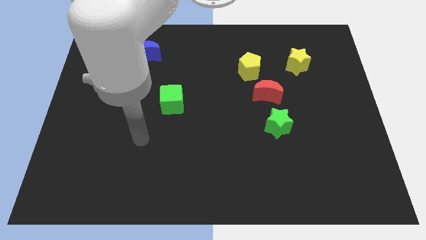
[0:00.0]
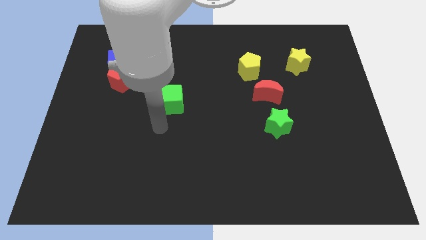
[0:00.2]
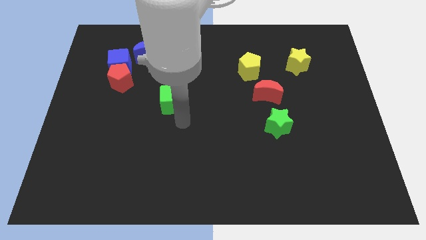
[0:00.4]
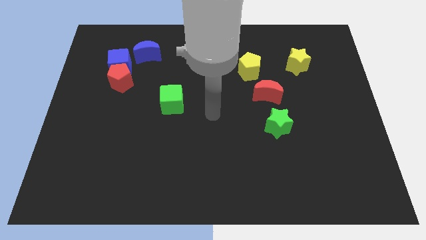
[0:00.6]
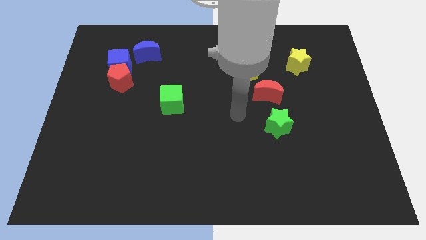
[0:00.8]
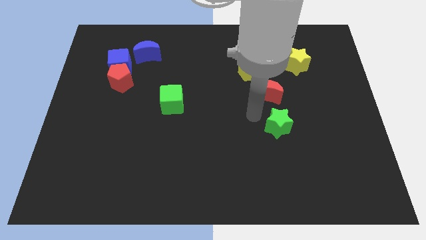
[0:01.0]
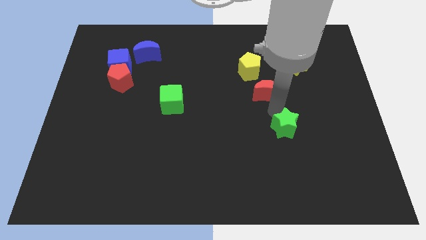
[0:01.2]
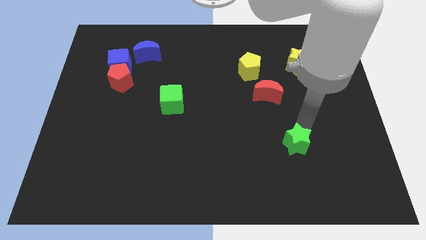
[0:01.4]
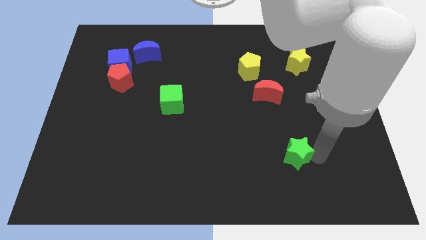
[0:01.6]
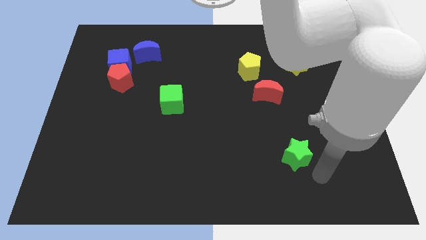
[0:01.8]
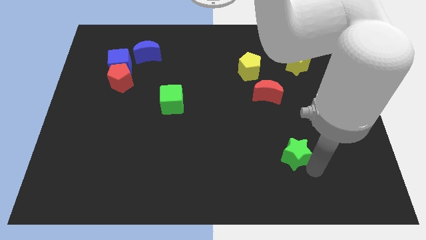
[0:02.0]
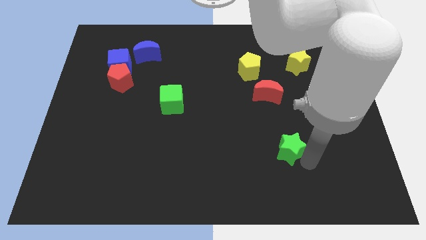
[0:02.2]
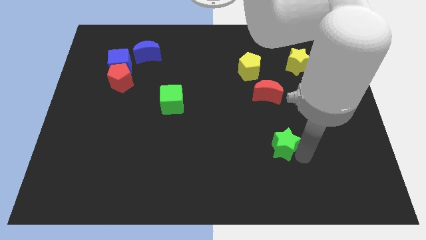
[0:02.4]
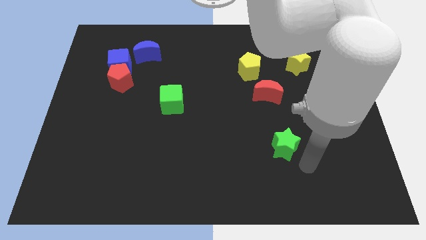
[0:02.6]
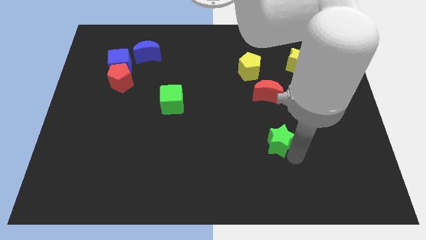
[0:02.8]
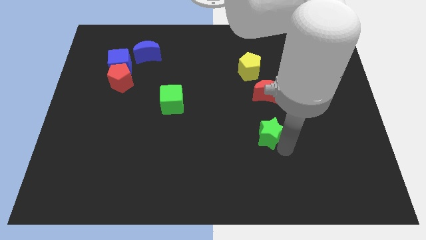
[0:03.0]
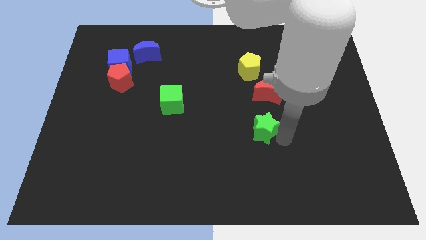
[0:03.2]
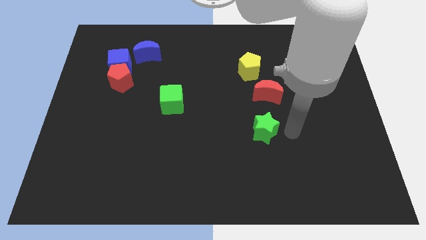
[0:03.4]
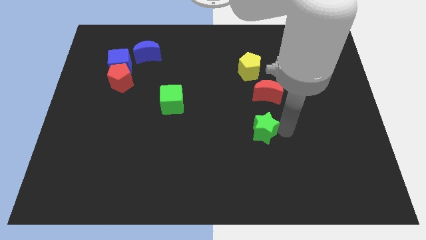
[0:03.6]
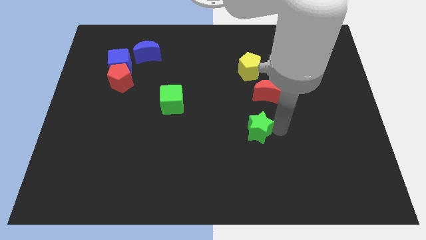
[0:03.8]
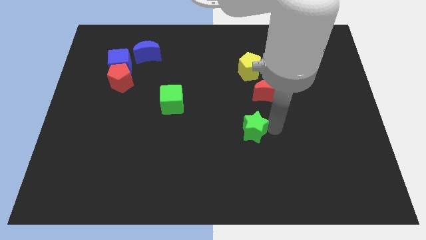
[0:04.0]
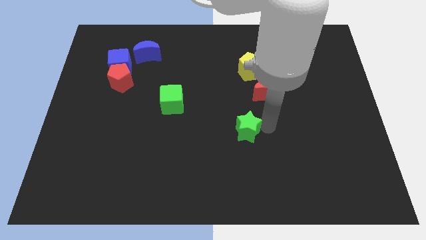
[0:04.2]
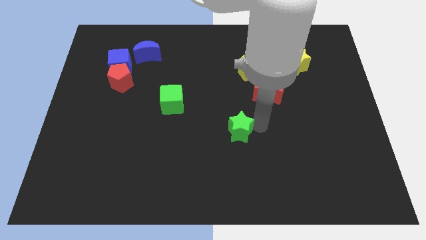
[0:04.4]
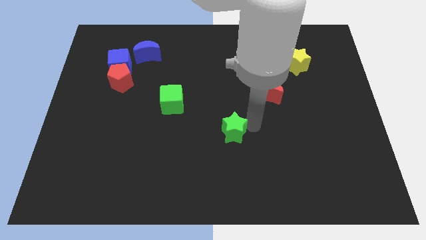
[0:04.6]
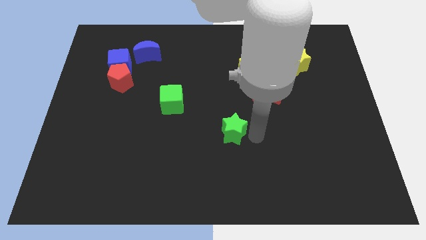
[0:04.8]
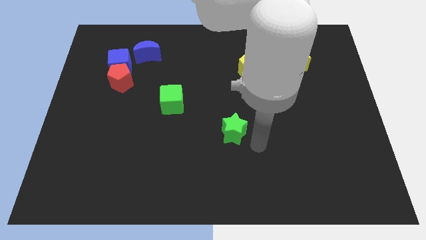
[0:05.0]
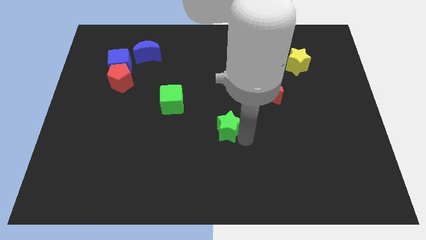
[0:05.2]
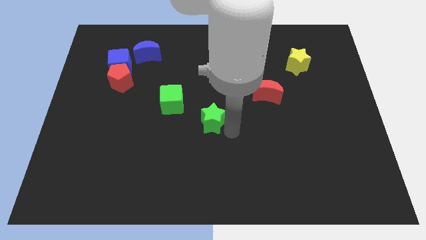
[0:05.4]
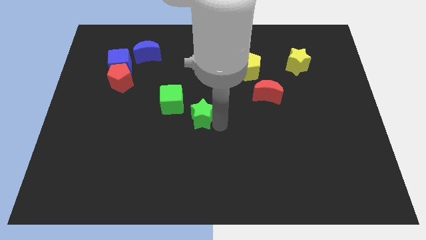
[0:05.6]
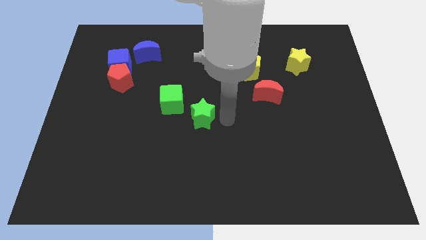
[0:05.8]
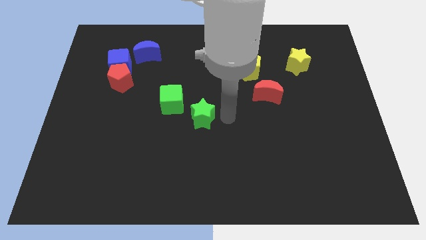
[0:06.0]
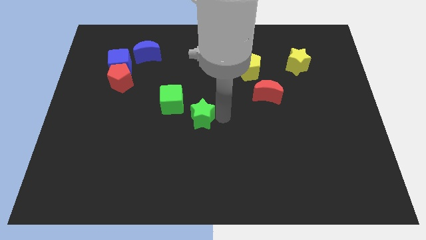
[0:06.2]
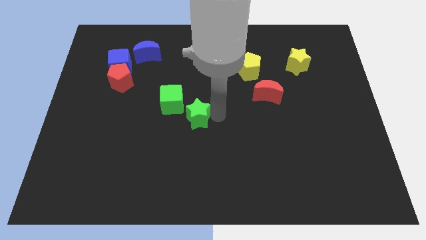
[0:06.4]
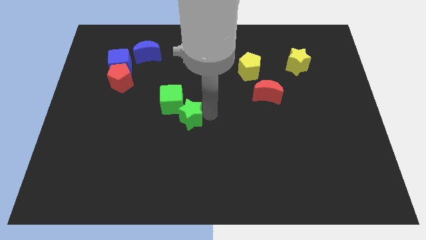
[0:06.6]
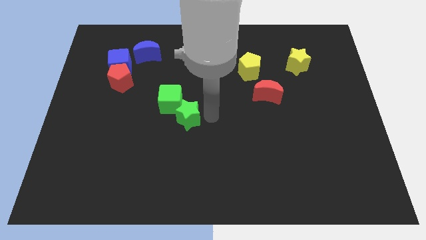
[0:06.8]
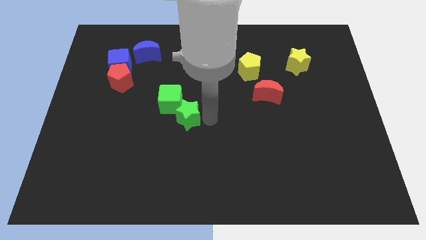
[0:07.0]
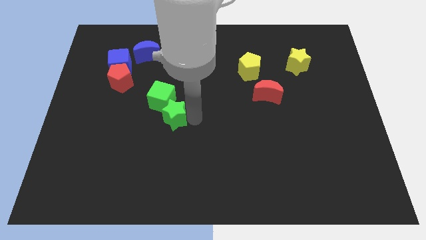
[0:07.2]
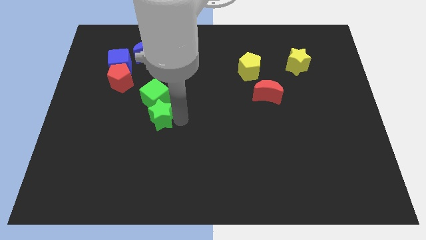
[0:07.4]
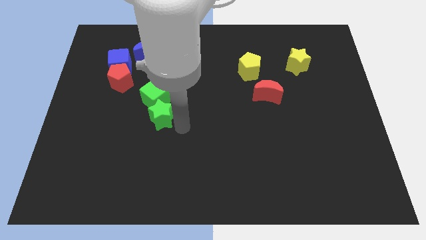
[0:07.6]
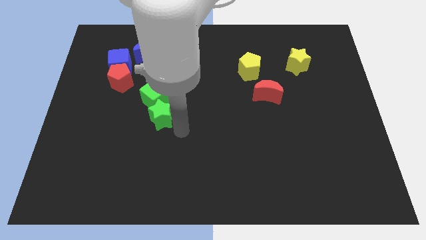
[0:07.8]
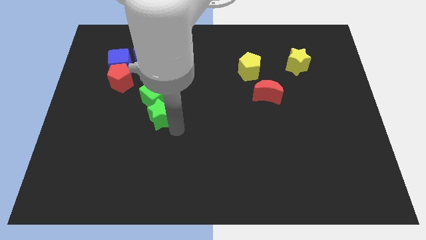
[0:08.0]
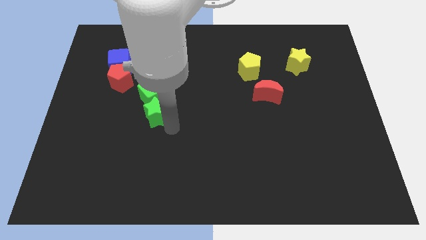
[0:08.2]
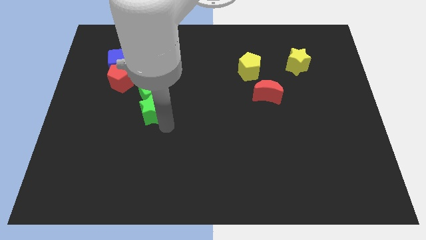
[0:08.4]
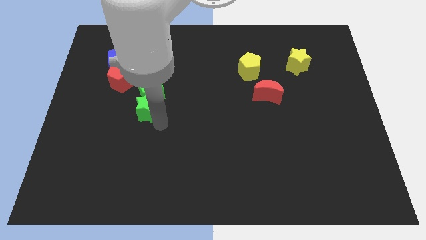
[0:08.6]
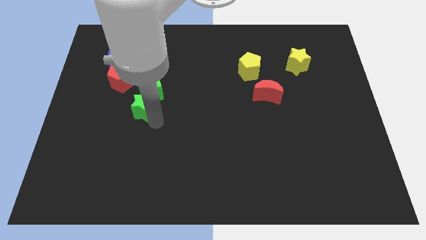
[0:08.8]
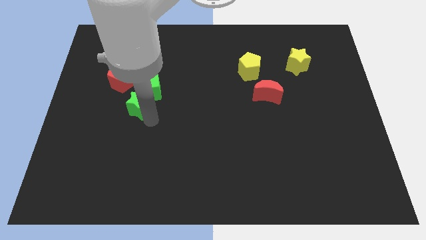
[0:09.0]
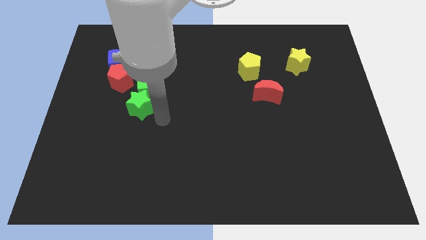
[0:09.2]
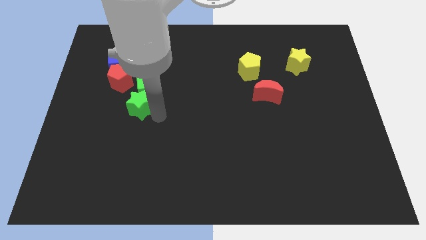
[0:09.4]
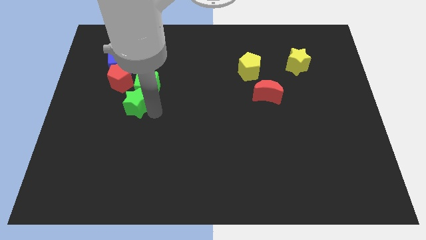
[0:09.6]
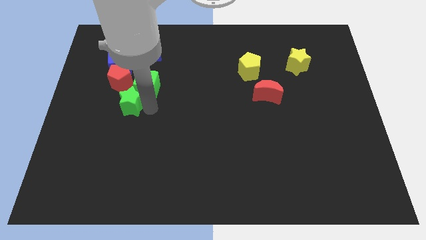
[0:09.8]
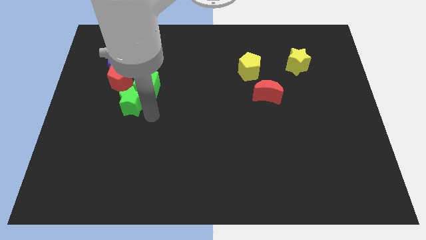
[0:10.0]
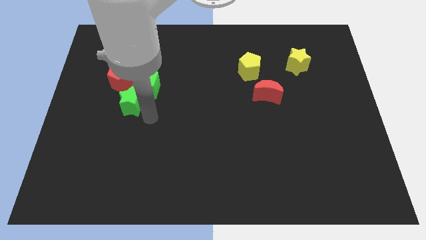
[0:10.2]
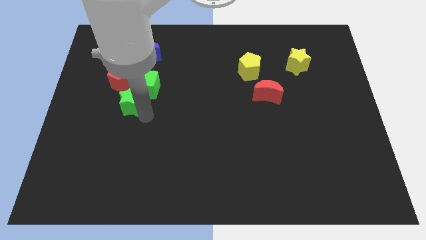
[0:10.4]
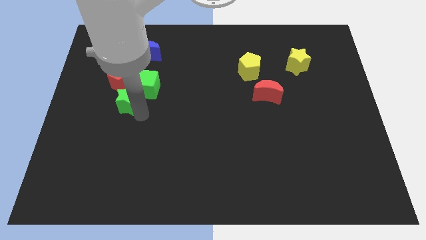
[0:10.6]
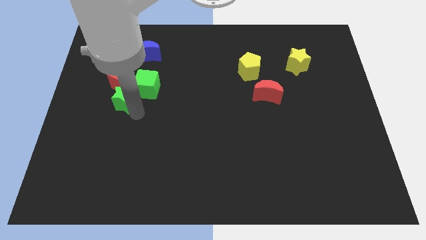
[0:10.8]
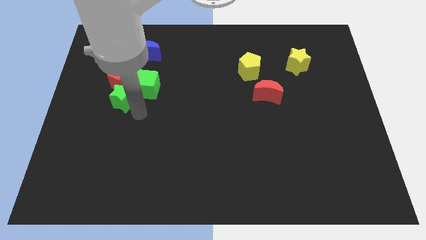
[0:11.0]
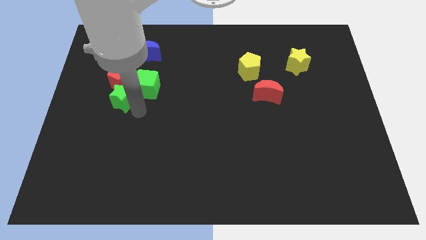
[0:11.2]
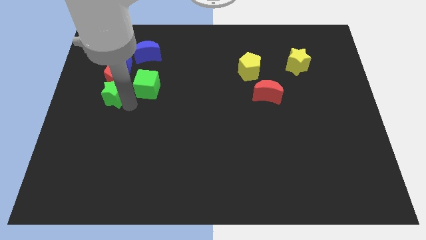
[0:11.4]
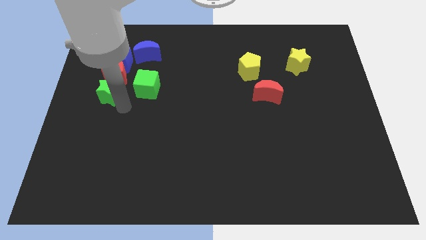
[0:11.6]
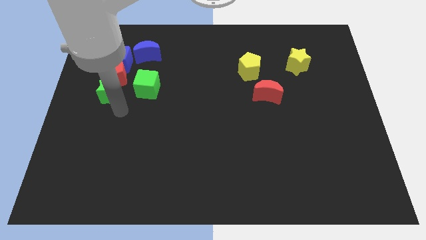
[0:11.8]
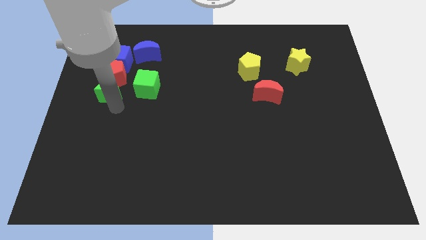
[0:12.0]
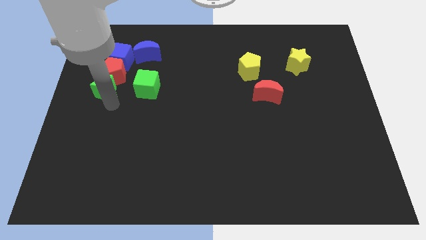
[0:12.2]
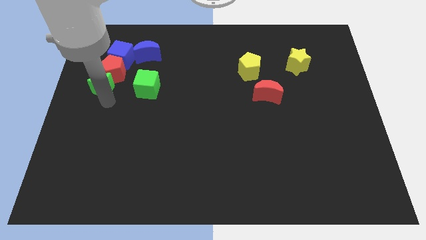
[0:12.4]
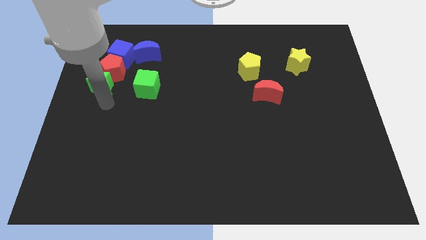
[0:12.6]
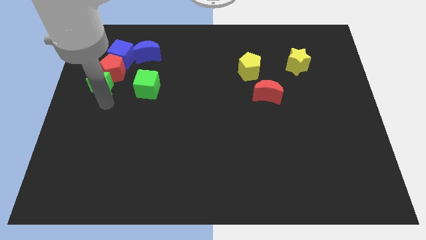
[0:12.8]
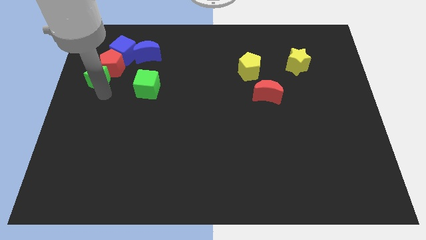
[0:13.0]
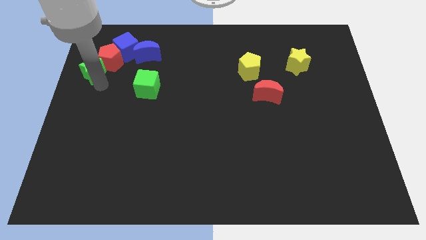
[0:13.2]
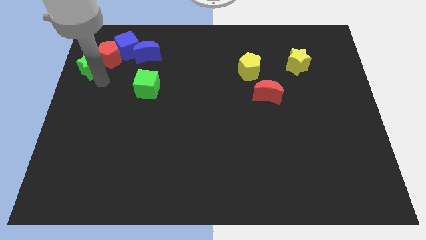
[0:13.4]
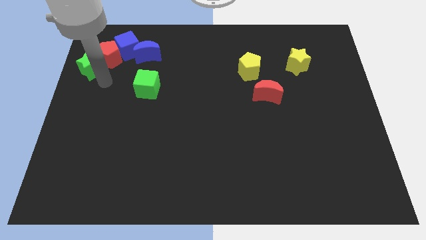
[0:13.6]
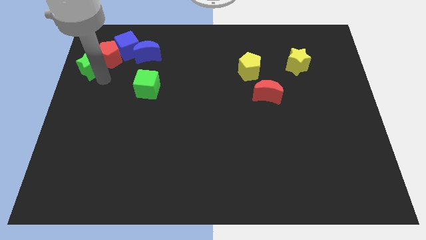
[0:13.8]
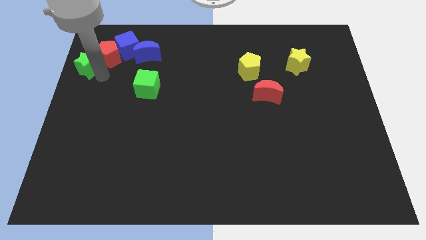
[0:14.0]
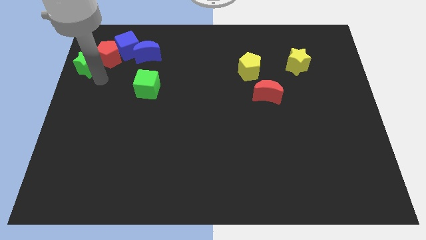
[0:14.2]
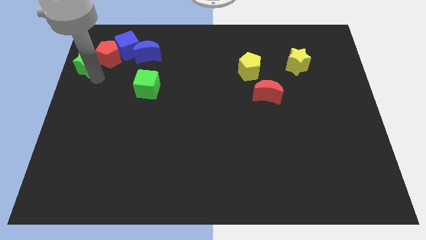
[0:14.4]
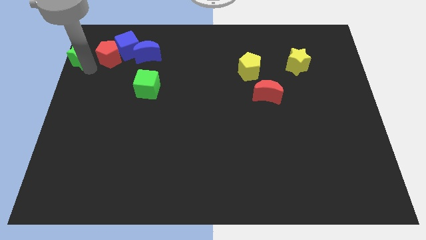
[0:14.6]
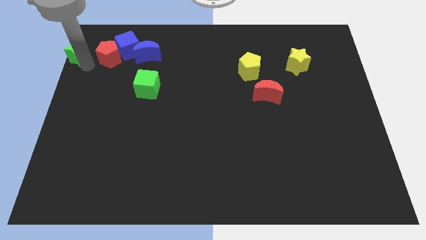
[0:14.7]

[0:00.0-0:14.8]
push the green star to the top left corner
